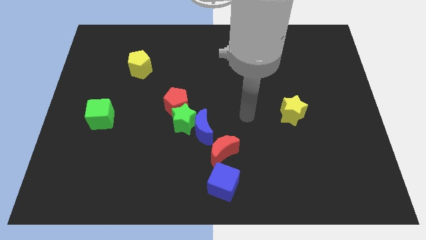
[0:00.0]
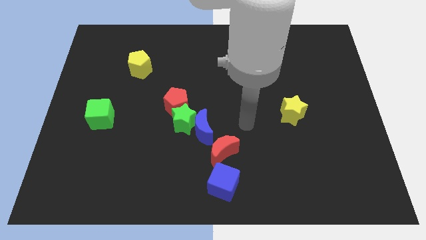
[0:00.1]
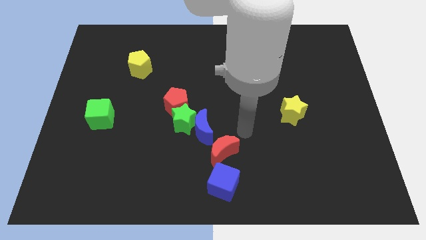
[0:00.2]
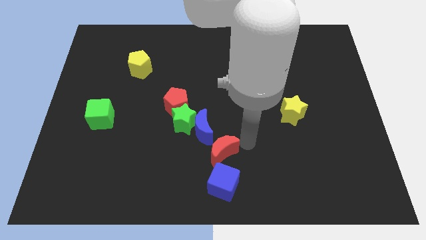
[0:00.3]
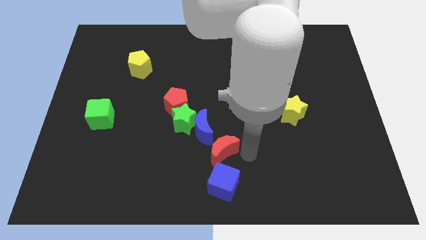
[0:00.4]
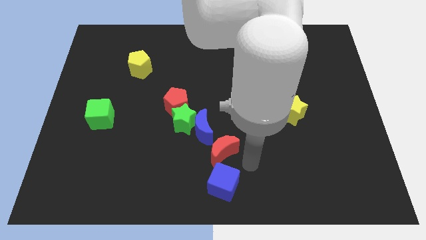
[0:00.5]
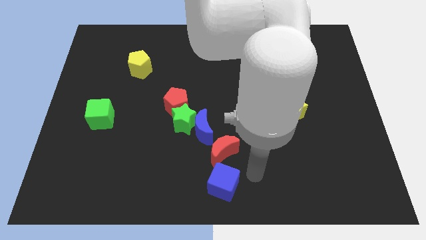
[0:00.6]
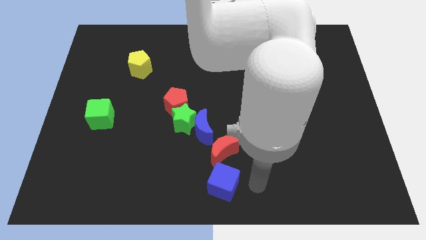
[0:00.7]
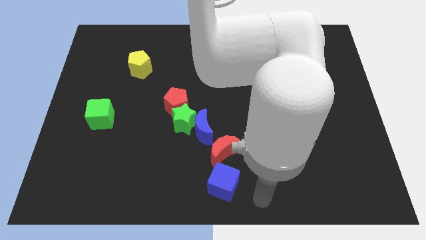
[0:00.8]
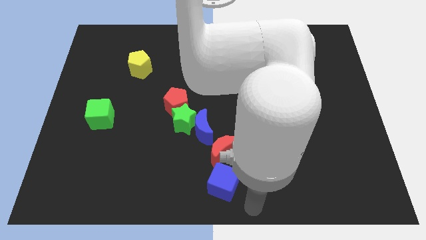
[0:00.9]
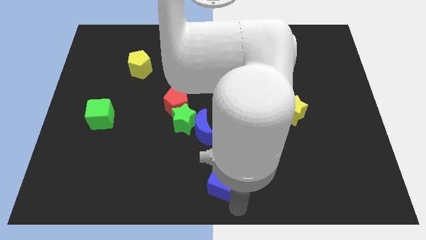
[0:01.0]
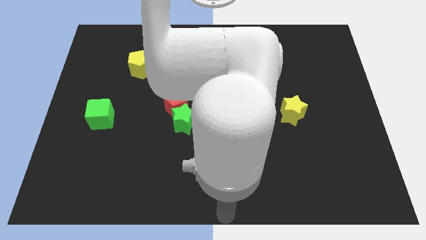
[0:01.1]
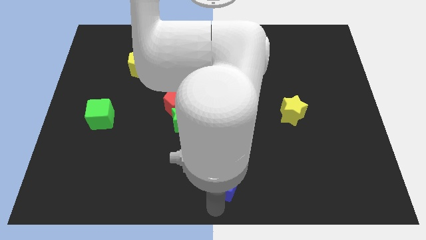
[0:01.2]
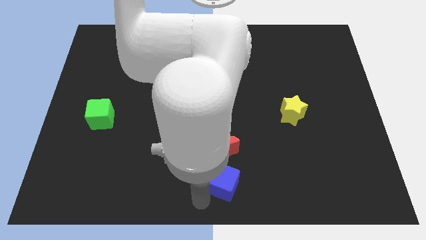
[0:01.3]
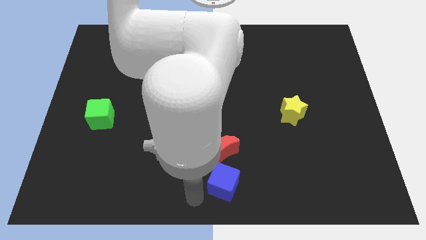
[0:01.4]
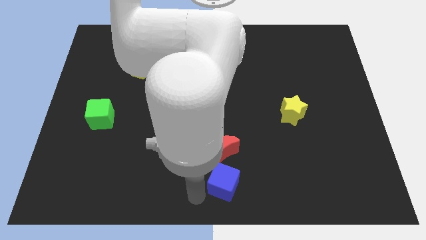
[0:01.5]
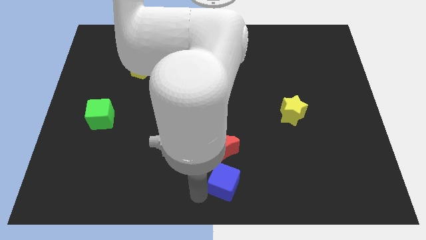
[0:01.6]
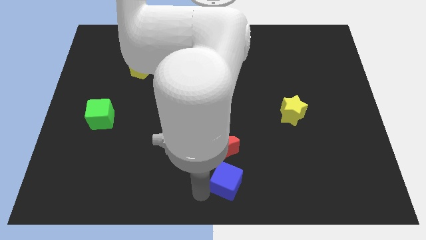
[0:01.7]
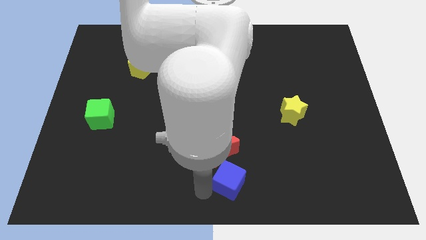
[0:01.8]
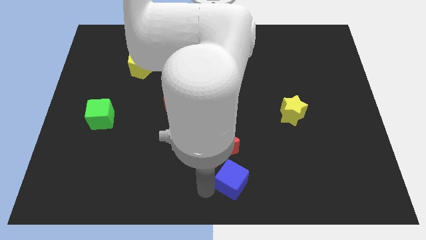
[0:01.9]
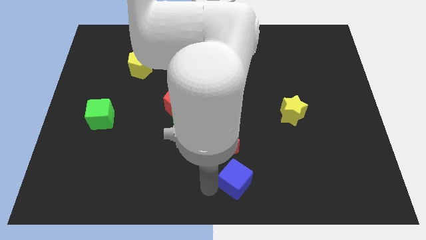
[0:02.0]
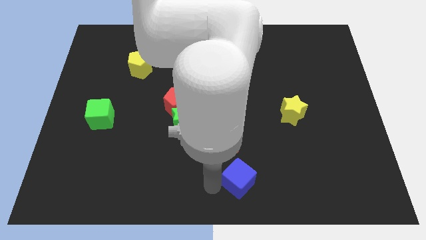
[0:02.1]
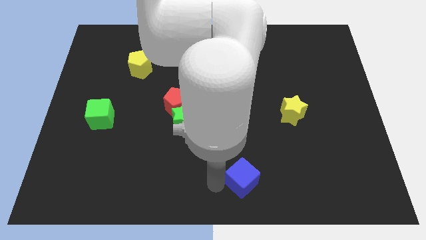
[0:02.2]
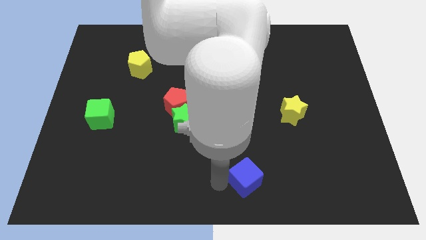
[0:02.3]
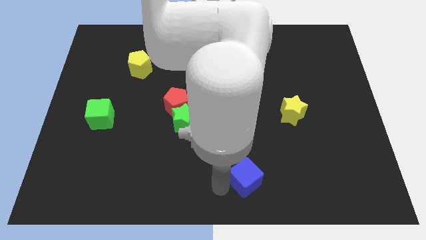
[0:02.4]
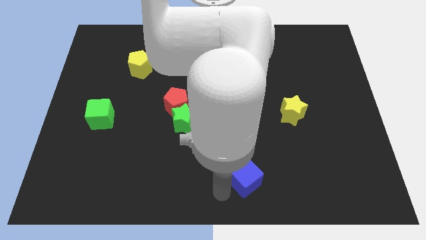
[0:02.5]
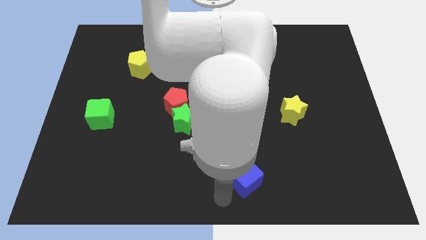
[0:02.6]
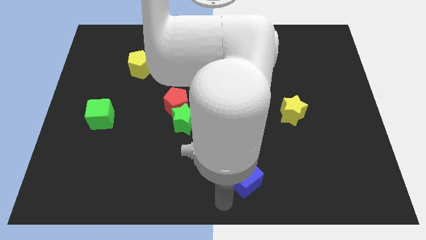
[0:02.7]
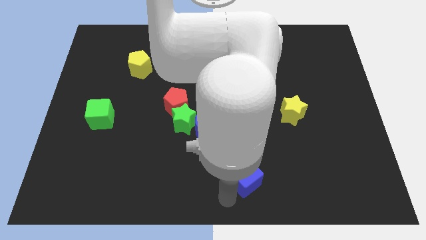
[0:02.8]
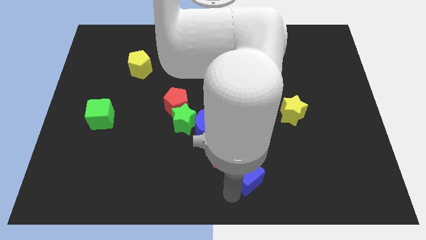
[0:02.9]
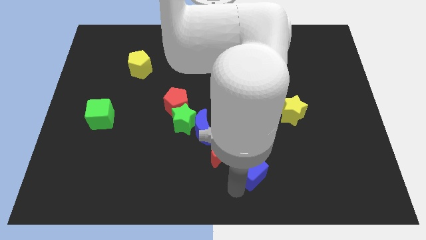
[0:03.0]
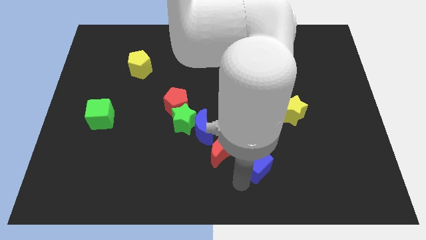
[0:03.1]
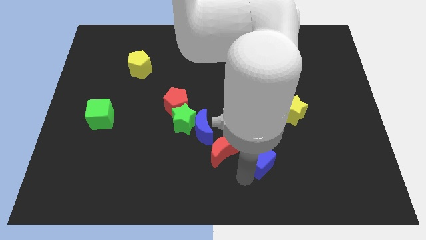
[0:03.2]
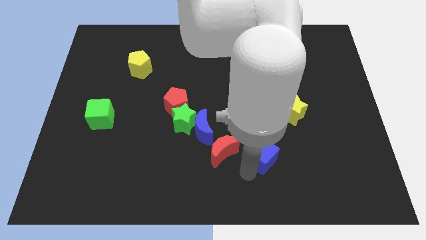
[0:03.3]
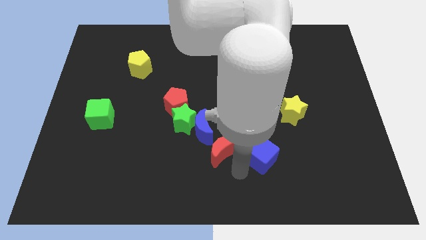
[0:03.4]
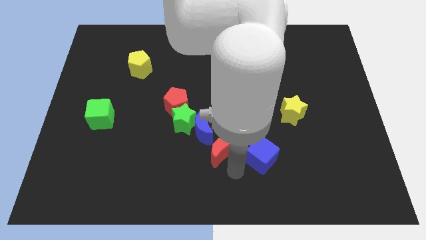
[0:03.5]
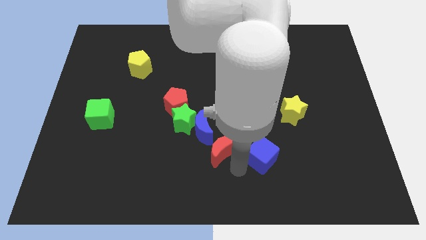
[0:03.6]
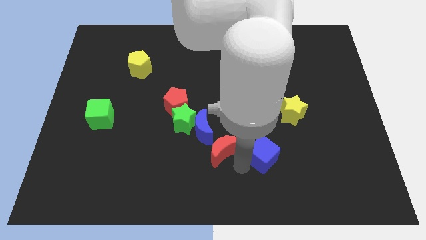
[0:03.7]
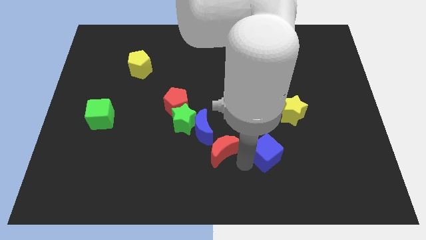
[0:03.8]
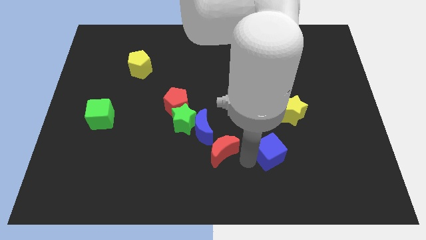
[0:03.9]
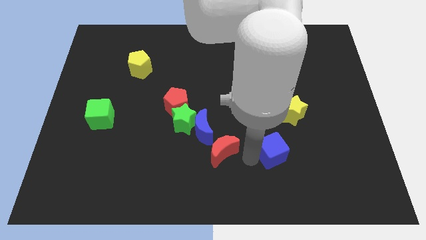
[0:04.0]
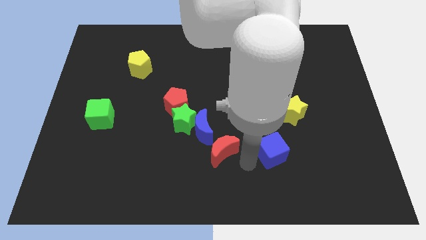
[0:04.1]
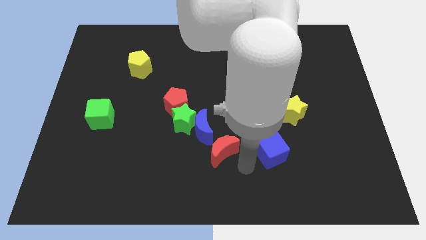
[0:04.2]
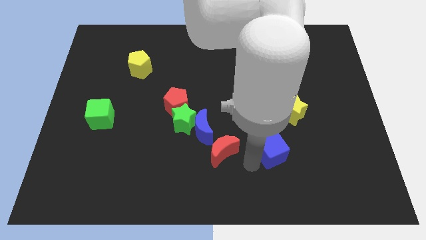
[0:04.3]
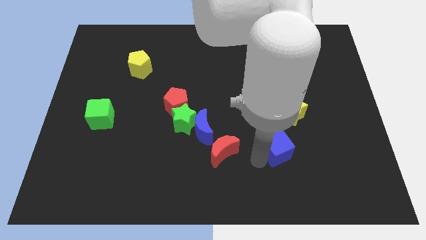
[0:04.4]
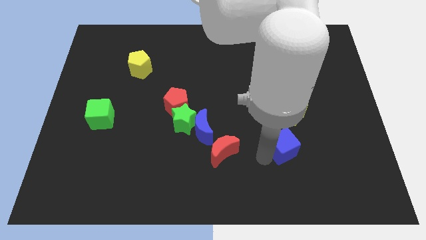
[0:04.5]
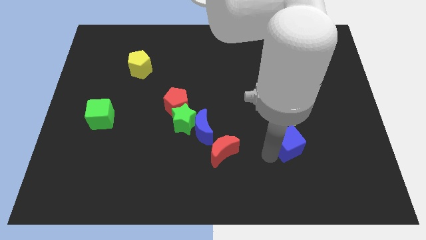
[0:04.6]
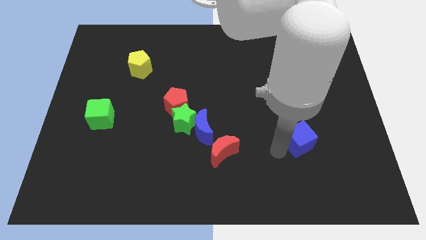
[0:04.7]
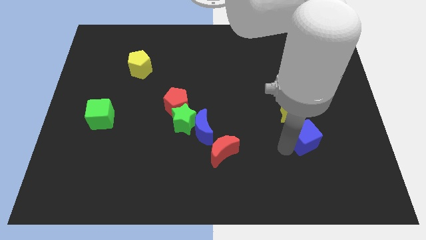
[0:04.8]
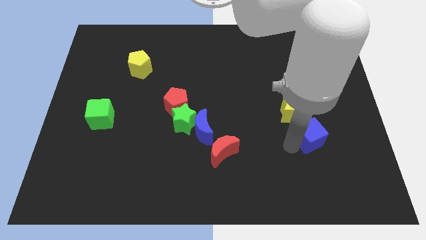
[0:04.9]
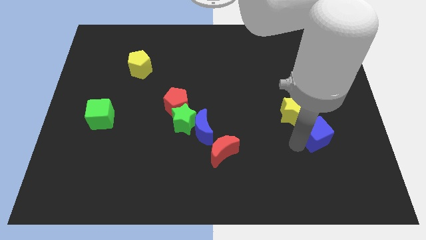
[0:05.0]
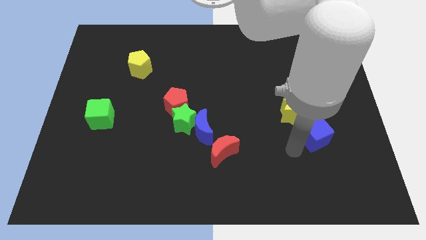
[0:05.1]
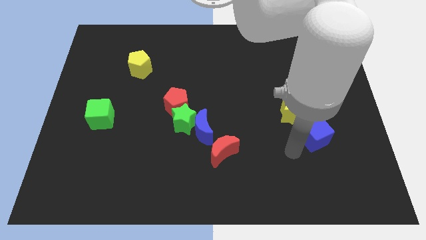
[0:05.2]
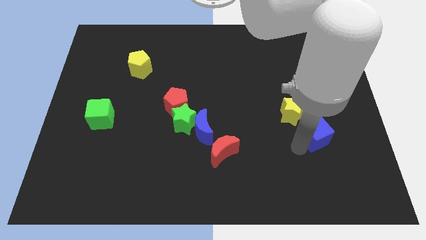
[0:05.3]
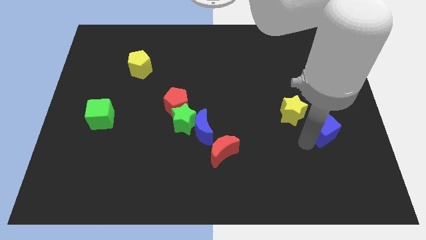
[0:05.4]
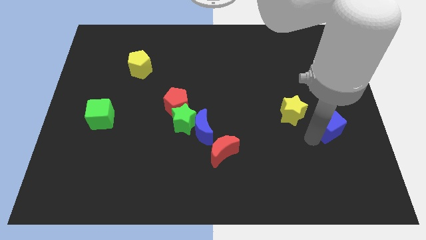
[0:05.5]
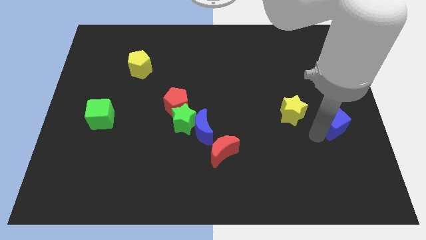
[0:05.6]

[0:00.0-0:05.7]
put the blue cube to the right side

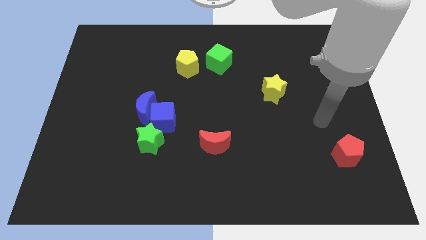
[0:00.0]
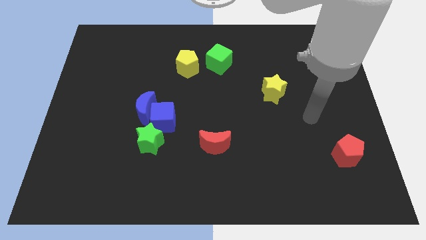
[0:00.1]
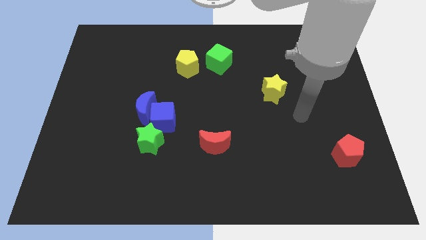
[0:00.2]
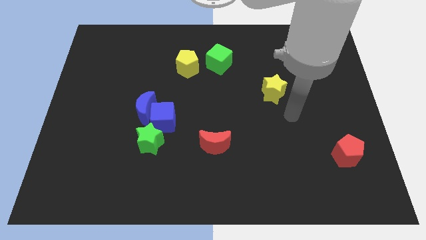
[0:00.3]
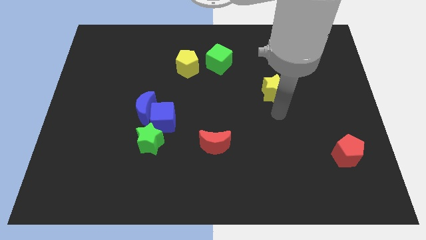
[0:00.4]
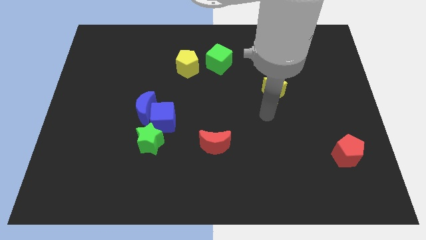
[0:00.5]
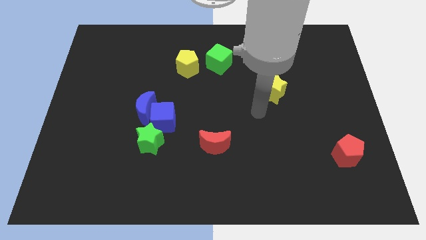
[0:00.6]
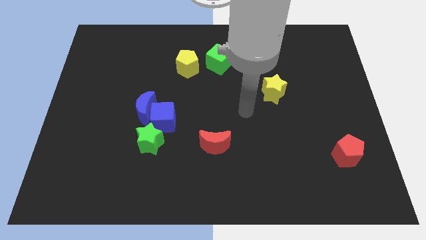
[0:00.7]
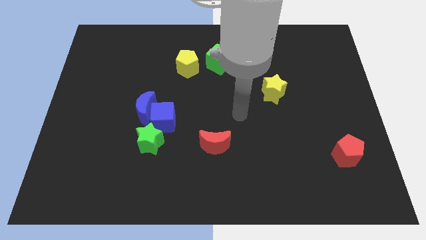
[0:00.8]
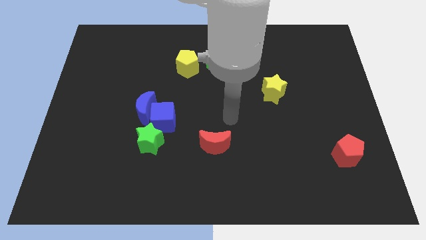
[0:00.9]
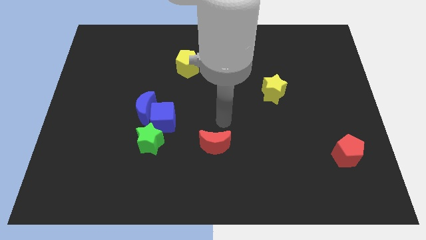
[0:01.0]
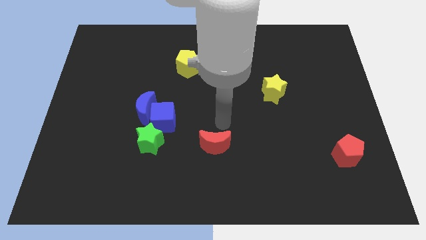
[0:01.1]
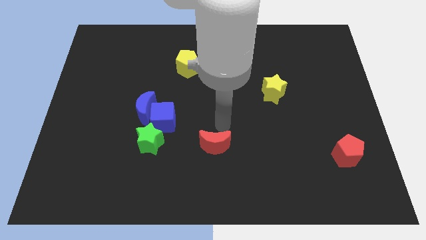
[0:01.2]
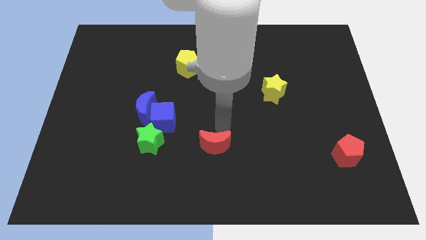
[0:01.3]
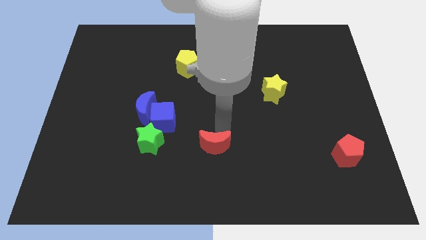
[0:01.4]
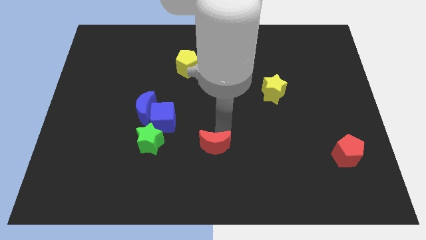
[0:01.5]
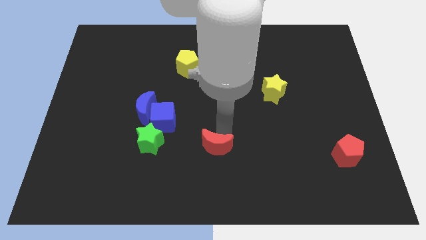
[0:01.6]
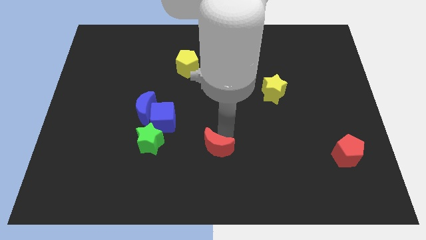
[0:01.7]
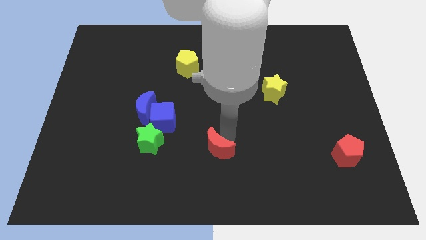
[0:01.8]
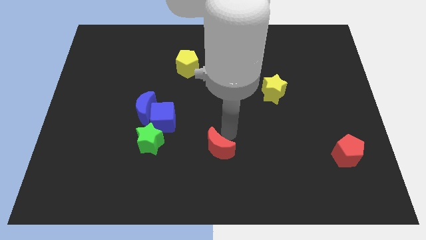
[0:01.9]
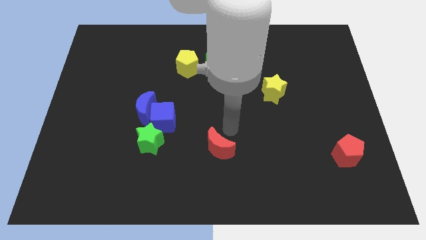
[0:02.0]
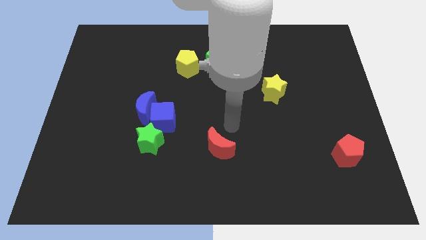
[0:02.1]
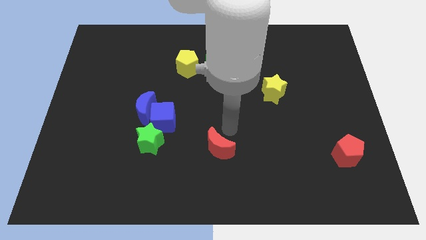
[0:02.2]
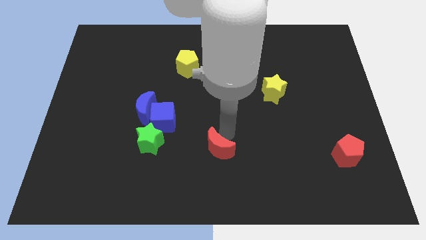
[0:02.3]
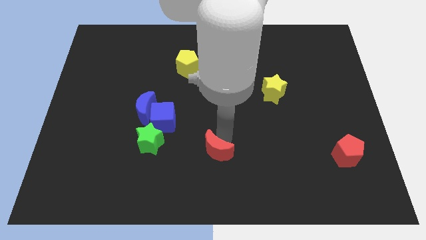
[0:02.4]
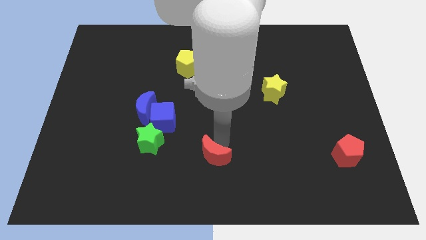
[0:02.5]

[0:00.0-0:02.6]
put the red moon to the bottom side
